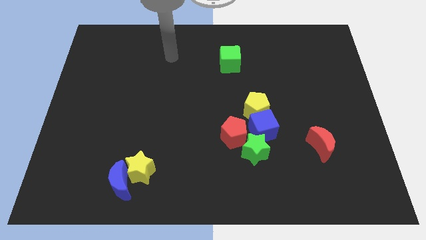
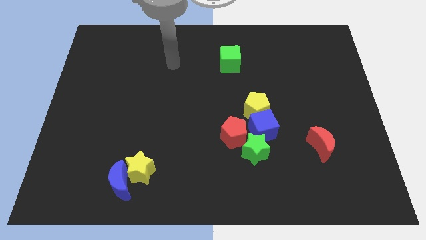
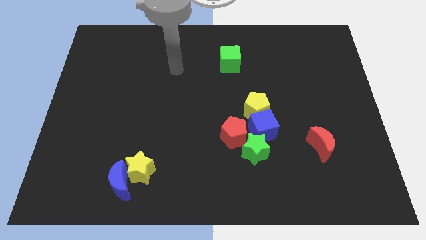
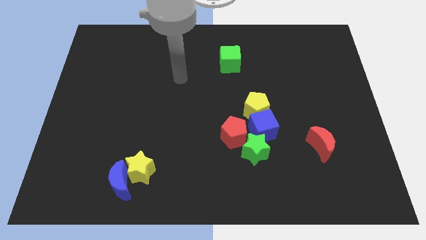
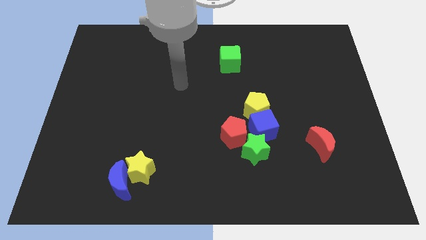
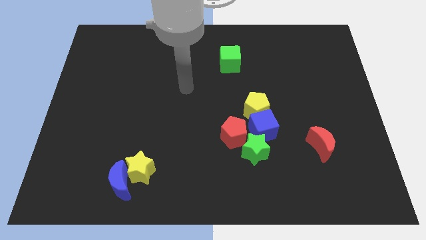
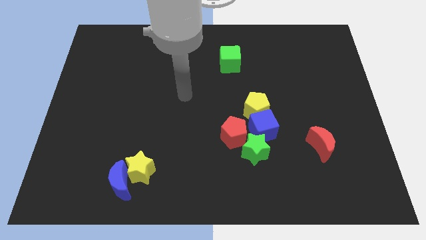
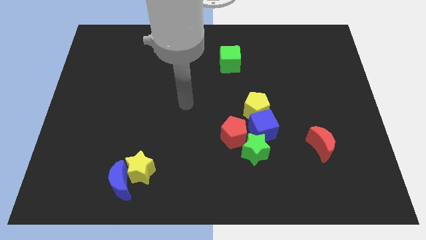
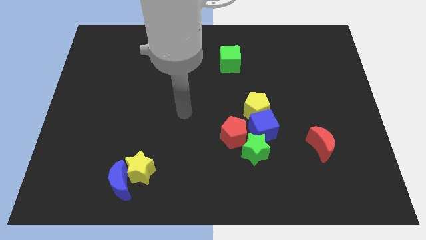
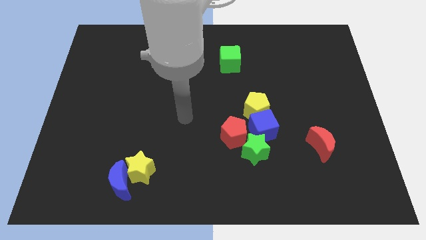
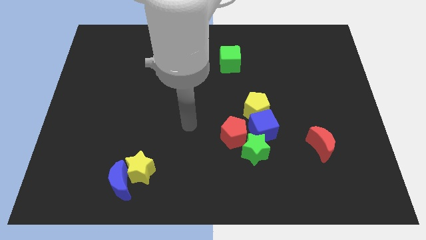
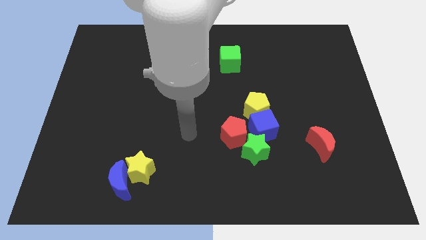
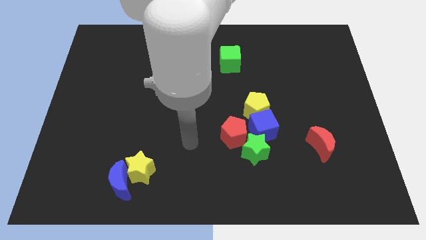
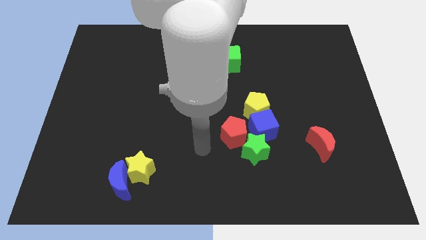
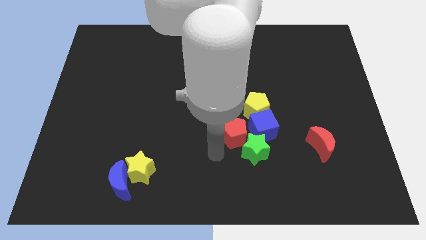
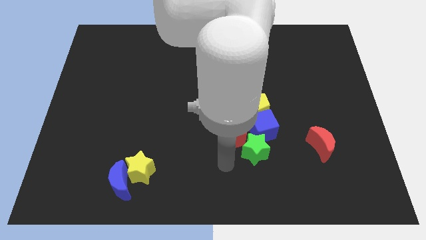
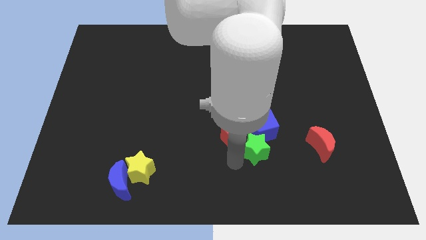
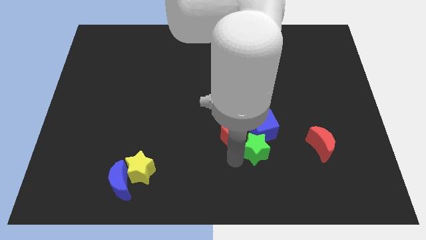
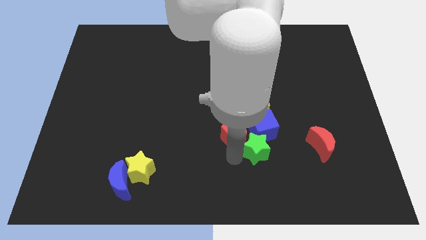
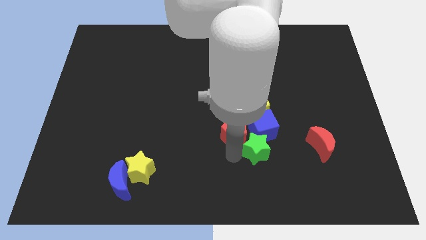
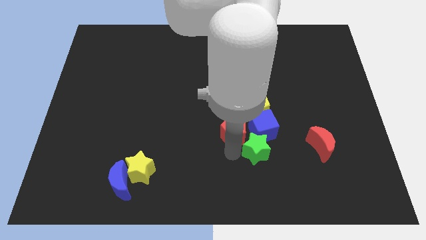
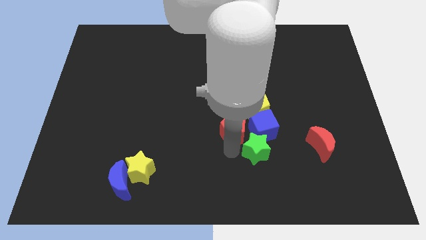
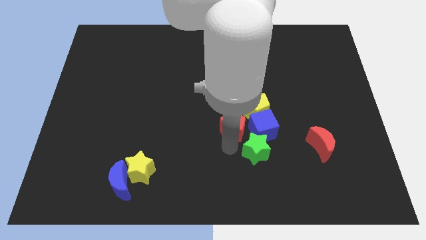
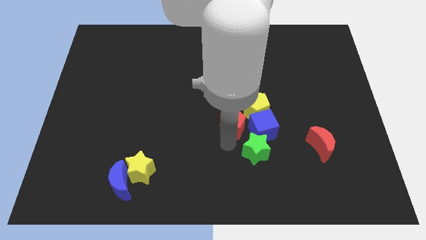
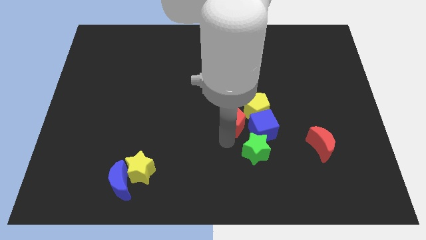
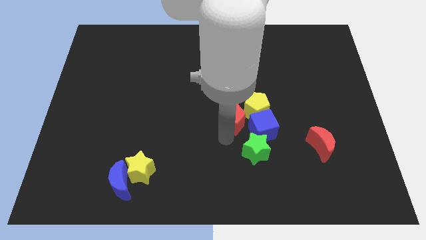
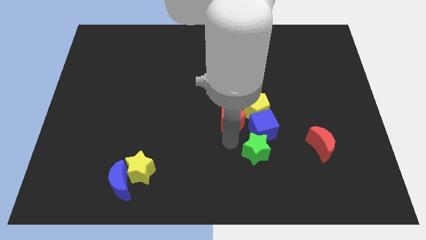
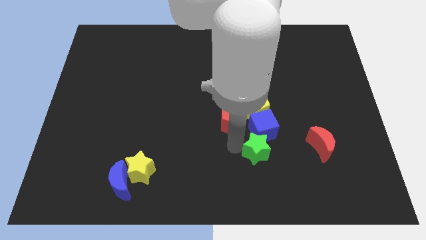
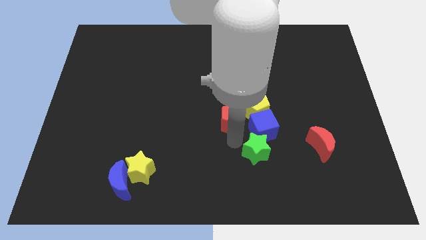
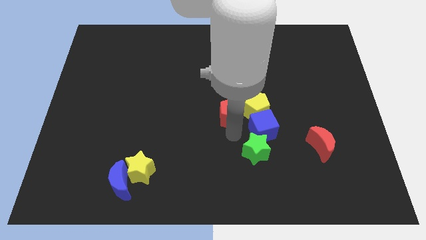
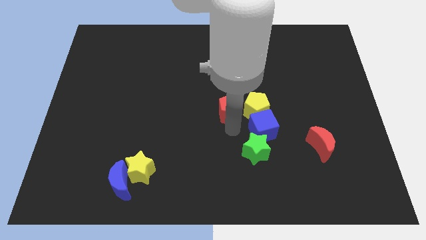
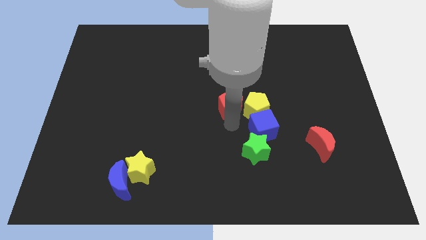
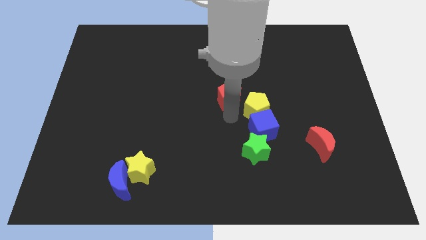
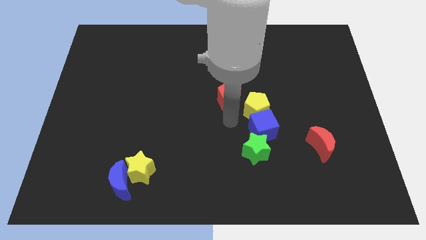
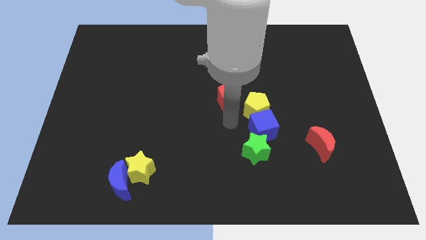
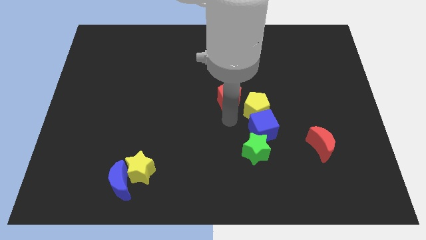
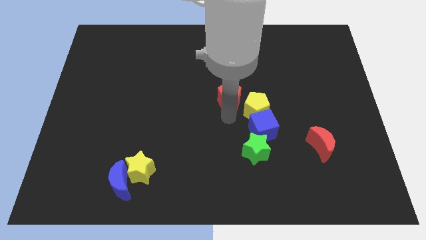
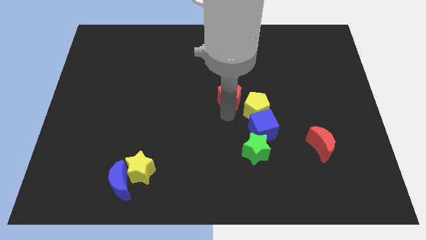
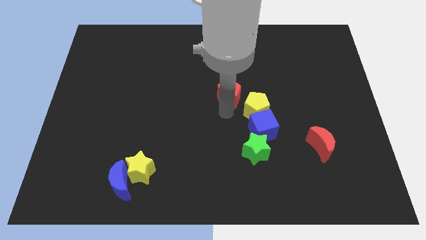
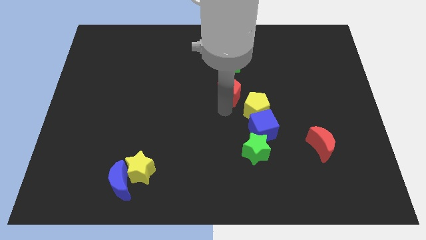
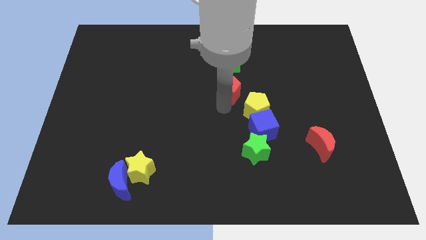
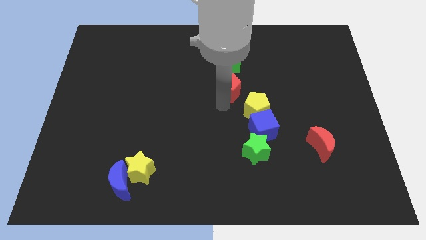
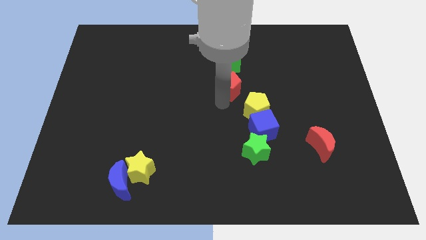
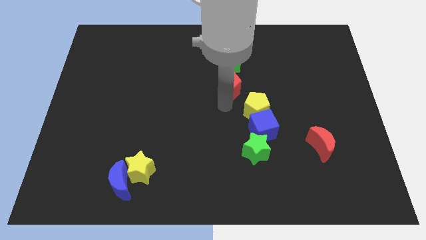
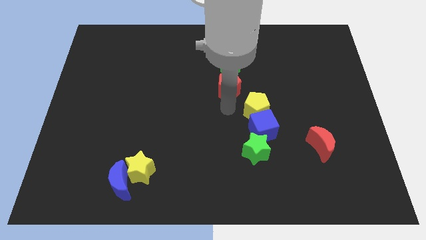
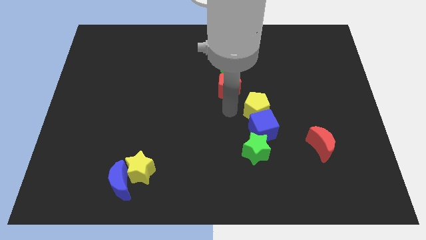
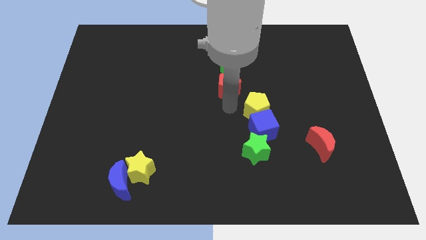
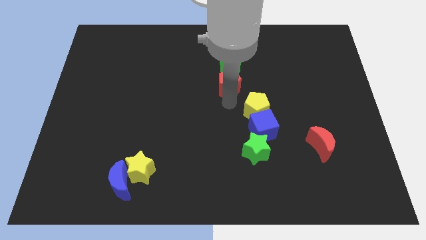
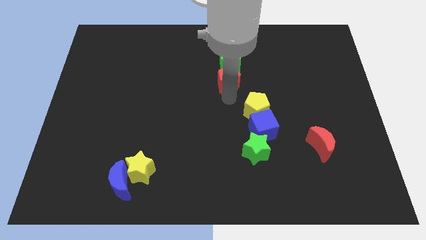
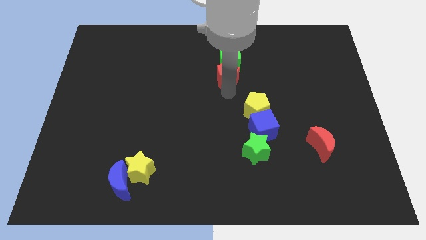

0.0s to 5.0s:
move the red pentagon to the green cube

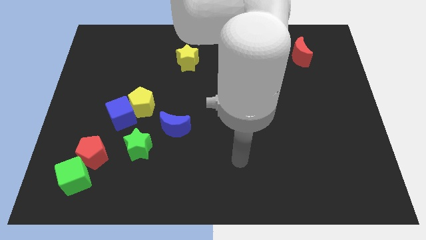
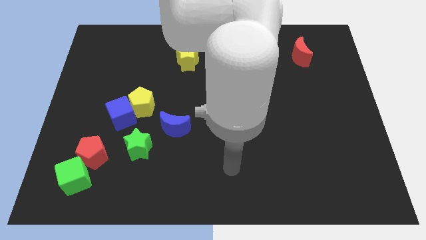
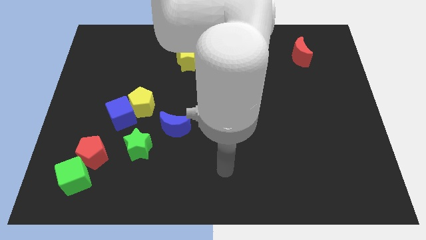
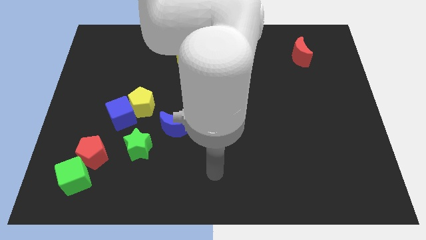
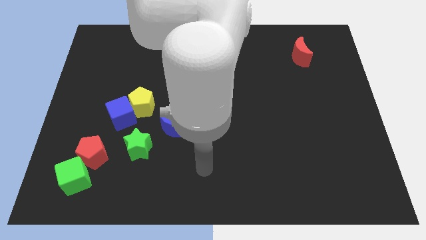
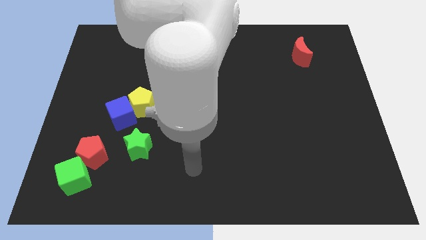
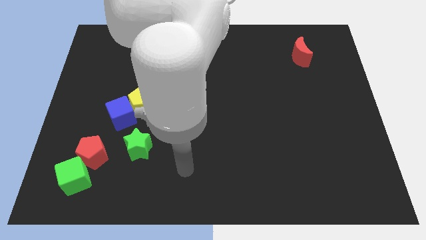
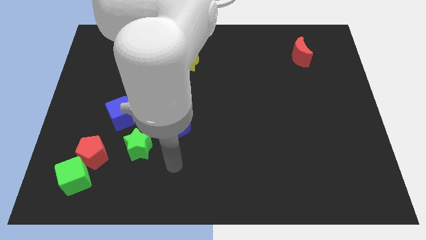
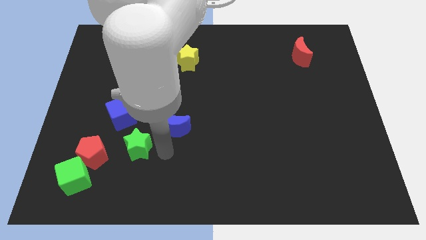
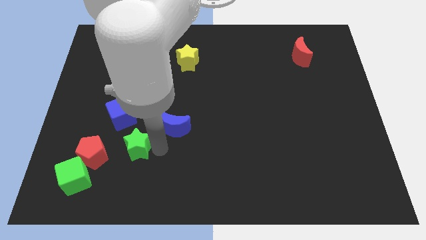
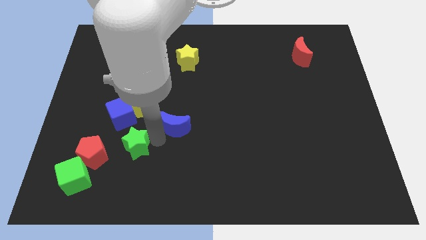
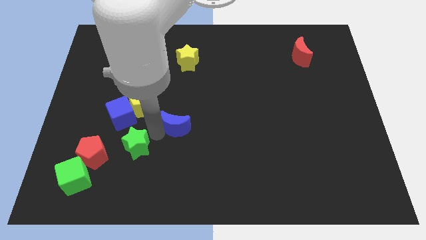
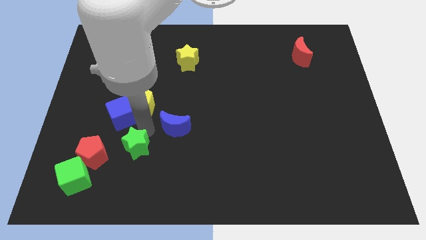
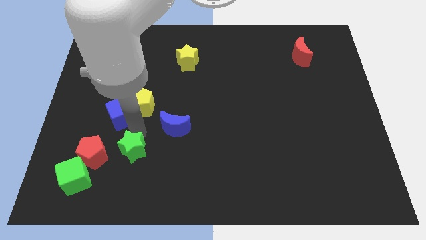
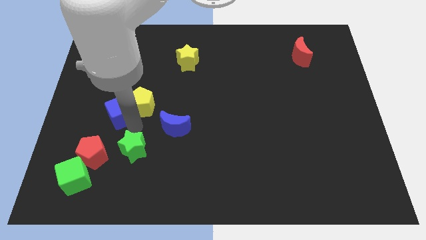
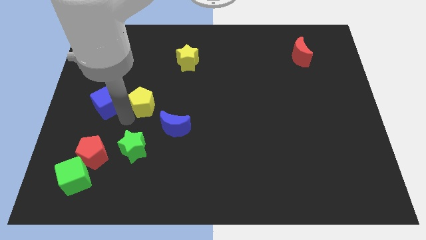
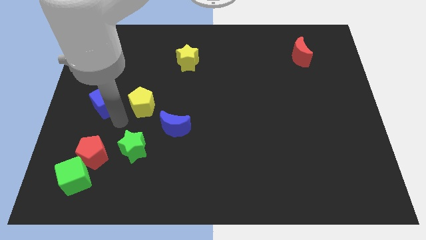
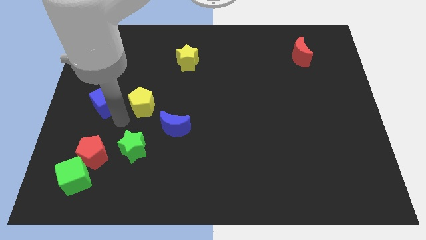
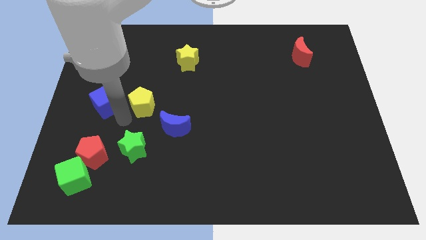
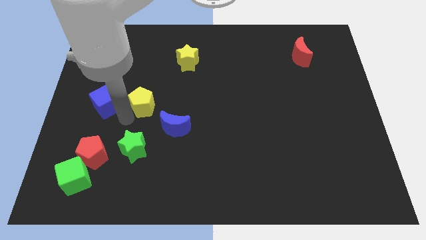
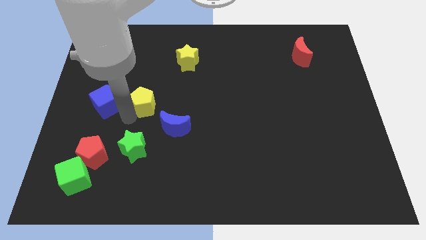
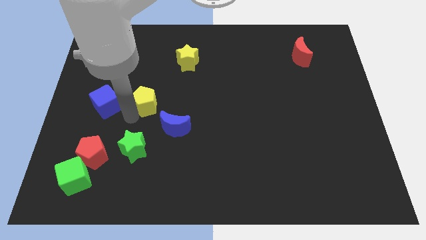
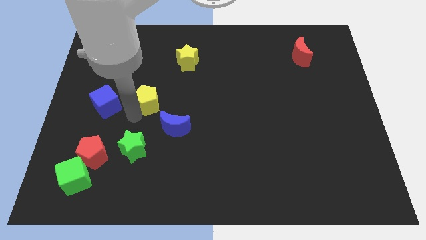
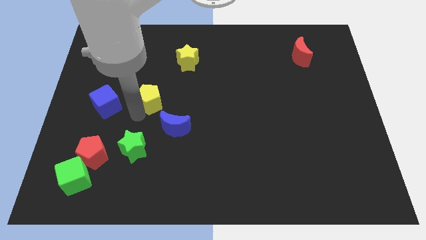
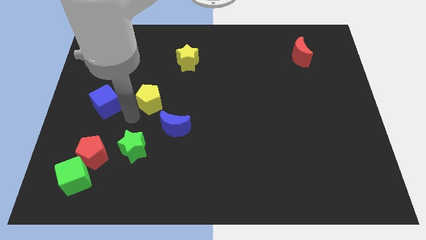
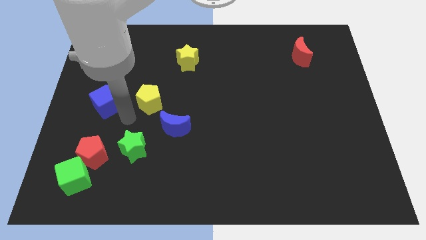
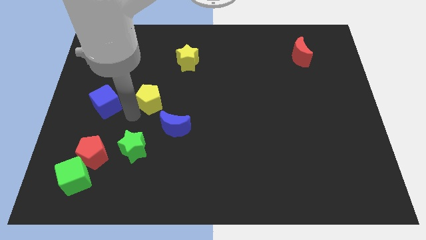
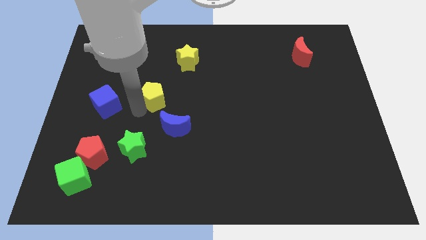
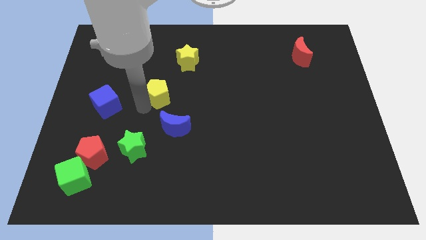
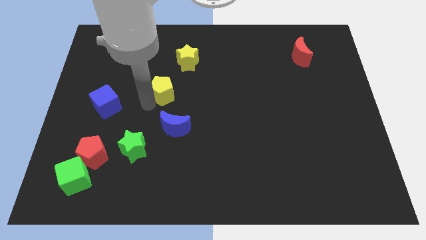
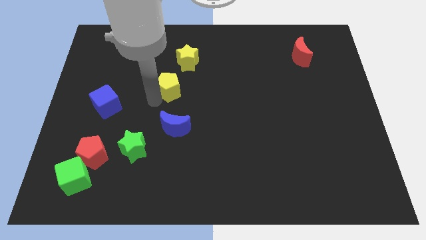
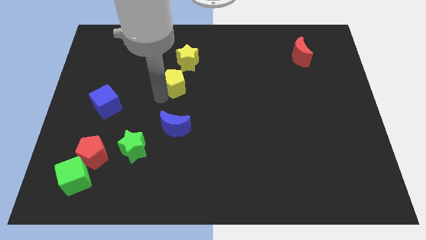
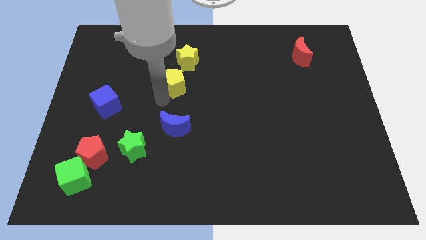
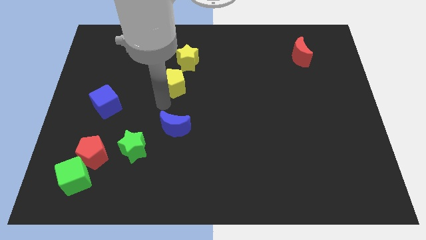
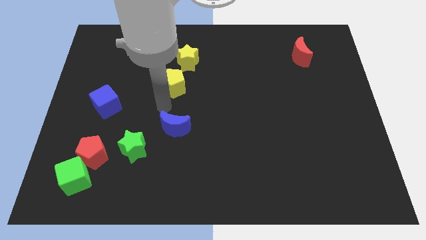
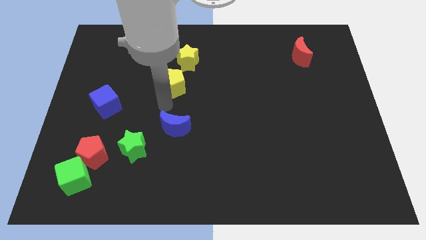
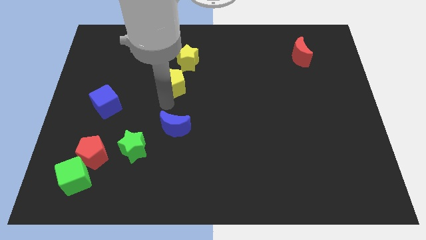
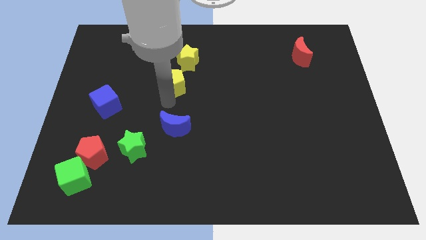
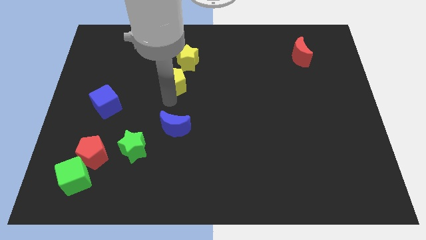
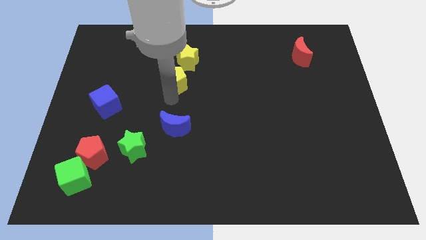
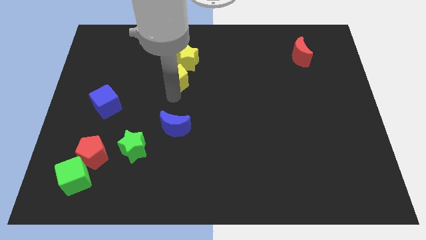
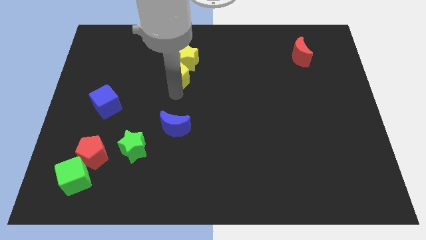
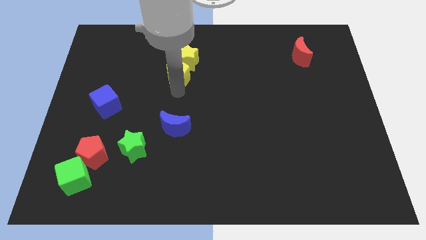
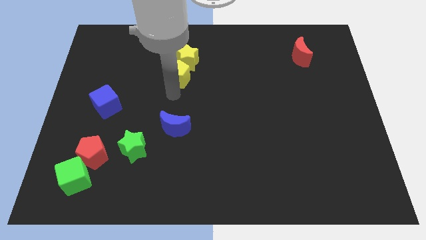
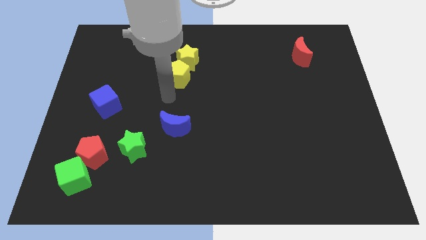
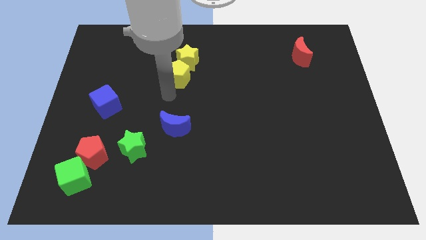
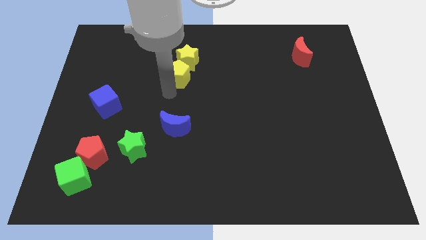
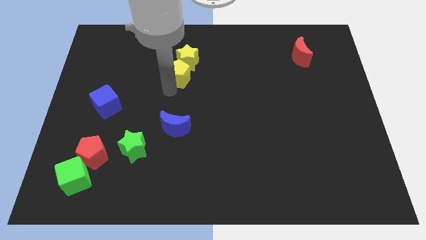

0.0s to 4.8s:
put the yellow pentagon towards the yellow star
